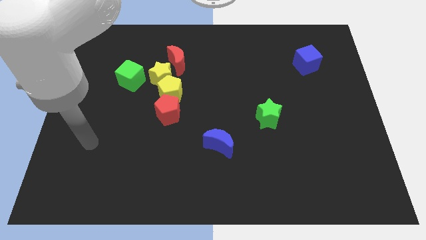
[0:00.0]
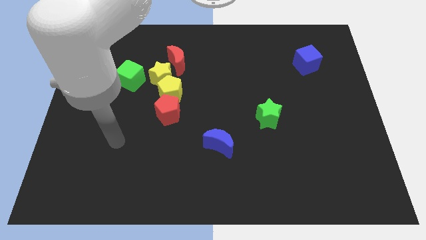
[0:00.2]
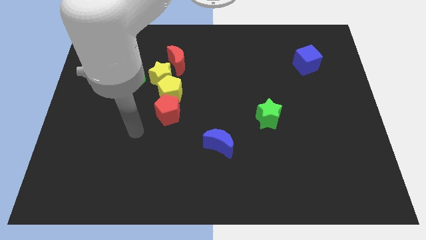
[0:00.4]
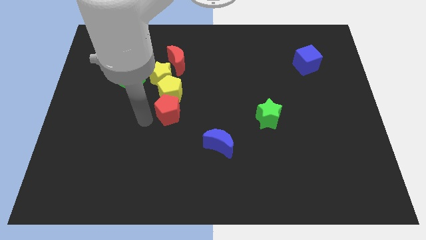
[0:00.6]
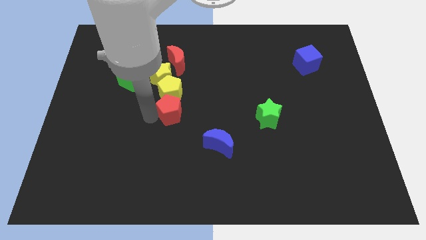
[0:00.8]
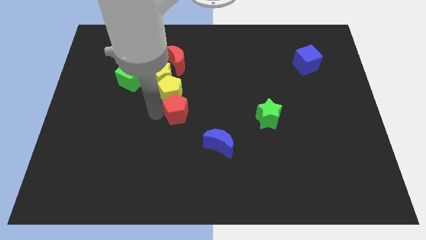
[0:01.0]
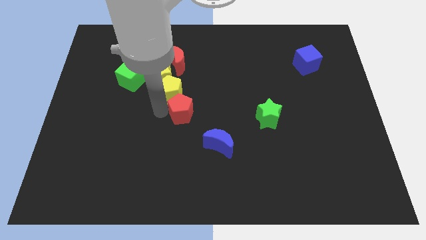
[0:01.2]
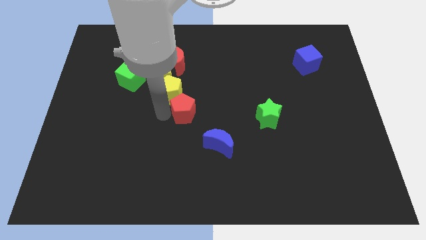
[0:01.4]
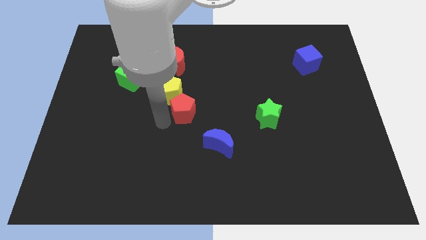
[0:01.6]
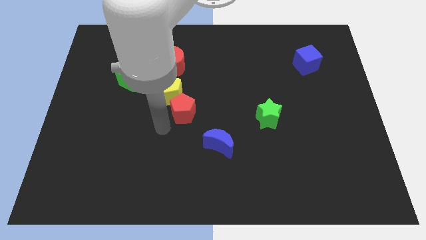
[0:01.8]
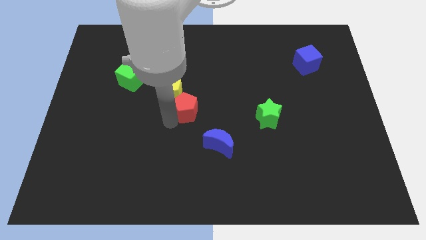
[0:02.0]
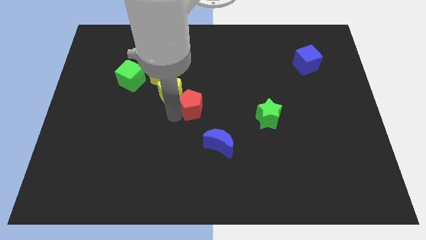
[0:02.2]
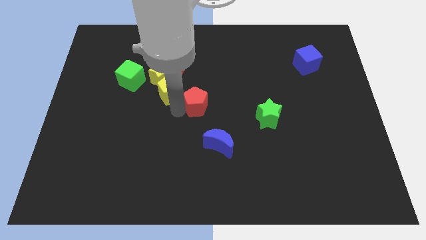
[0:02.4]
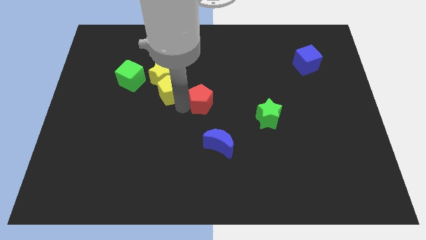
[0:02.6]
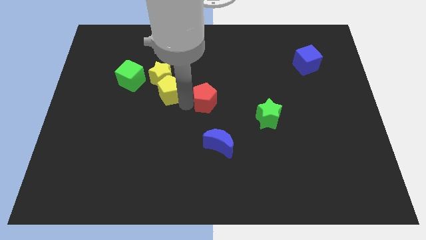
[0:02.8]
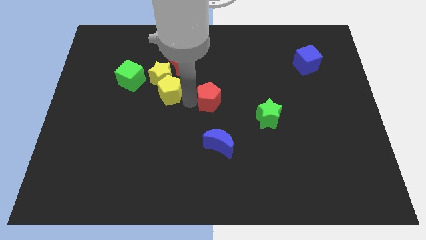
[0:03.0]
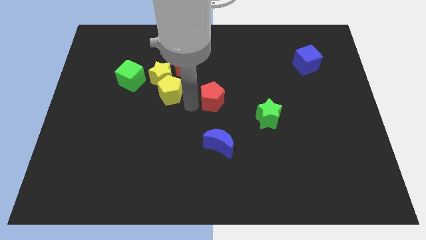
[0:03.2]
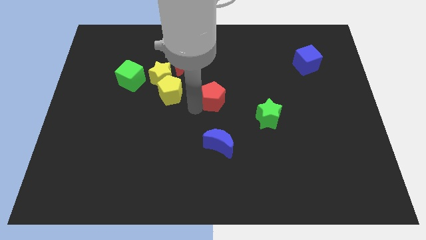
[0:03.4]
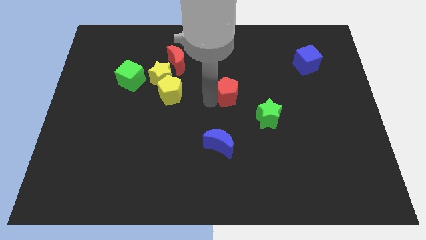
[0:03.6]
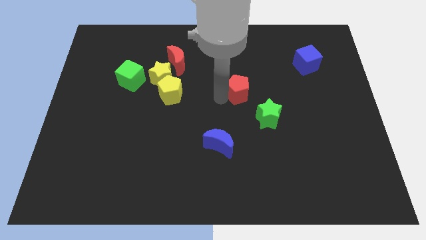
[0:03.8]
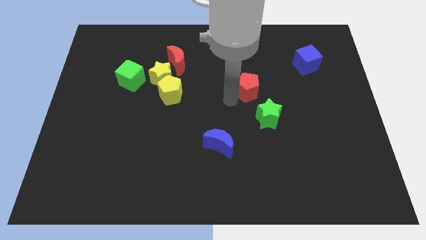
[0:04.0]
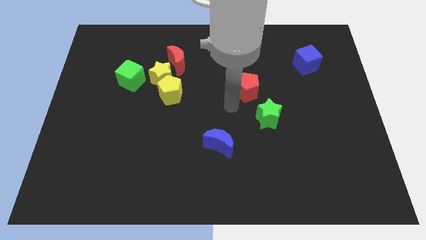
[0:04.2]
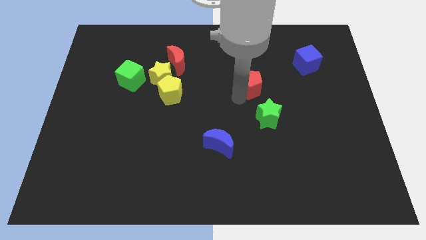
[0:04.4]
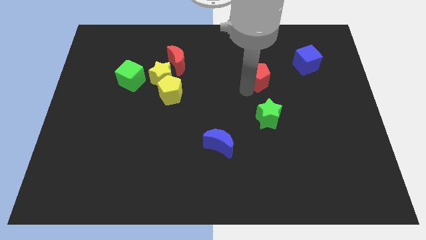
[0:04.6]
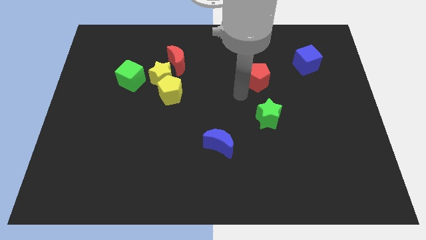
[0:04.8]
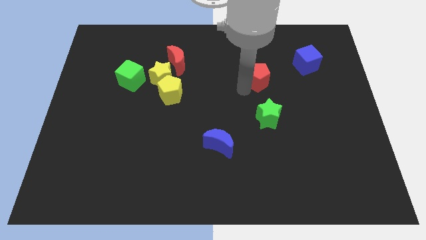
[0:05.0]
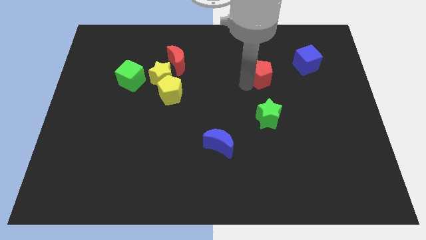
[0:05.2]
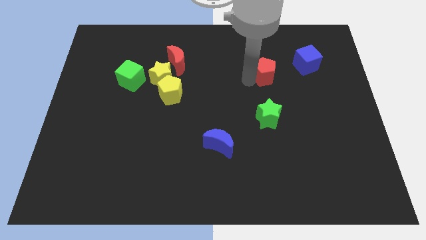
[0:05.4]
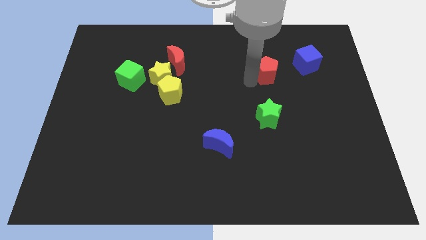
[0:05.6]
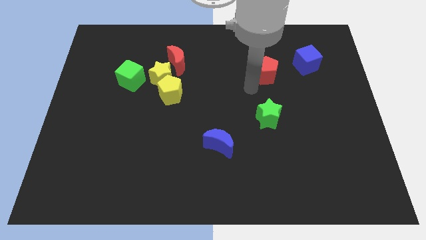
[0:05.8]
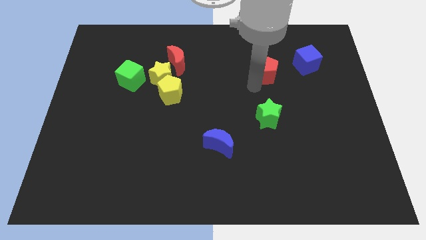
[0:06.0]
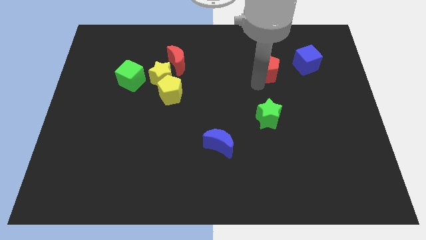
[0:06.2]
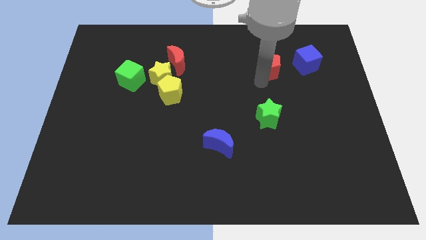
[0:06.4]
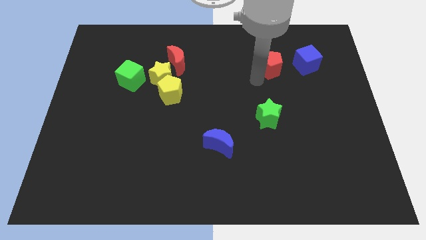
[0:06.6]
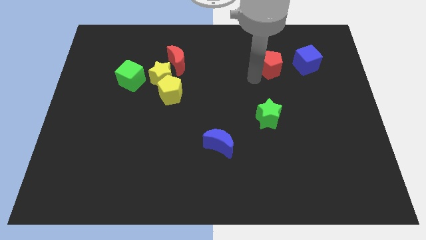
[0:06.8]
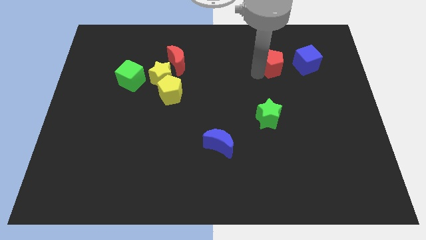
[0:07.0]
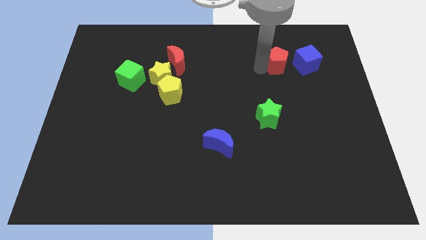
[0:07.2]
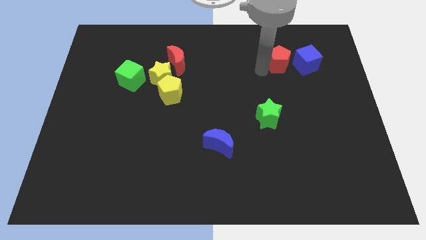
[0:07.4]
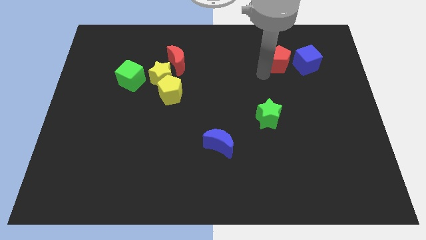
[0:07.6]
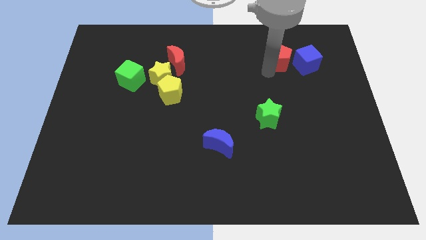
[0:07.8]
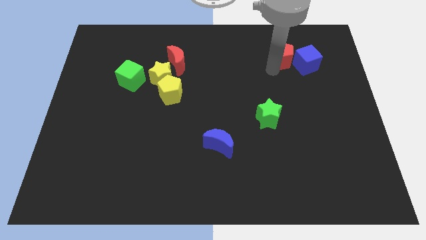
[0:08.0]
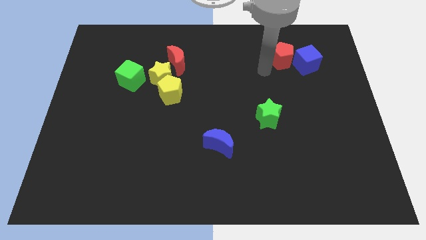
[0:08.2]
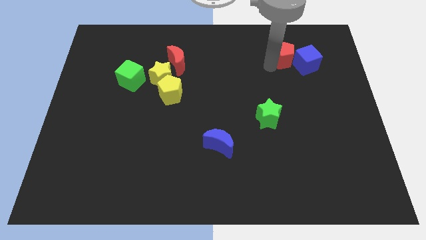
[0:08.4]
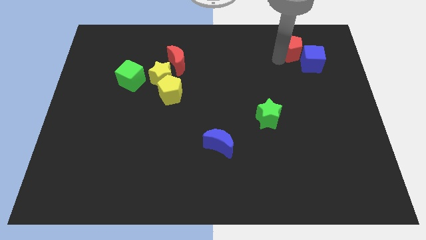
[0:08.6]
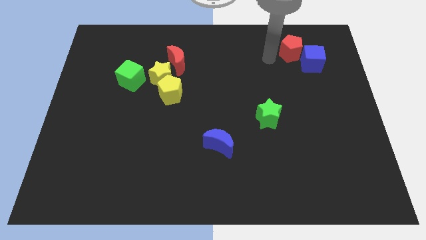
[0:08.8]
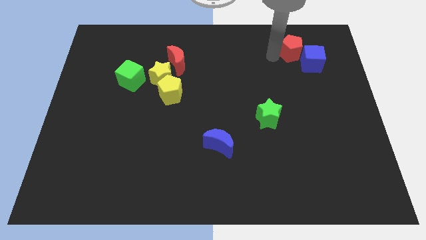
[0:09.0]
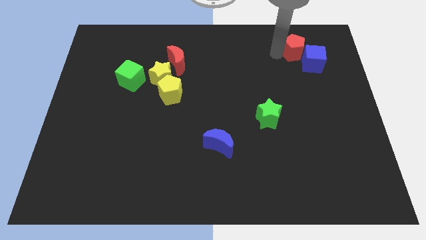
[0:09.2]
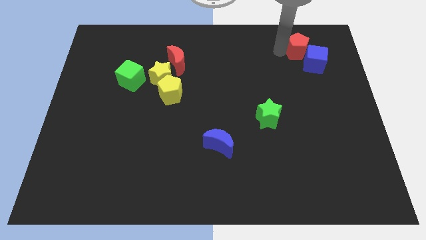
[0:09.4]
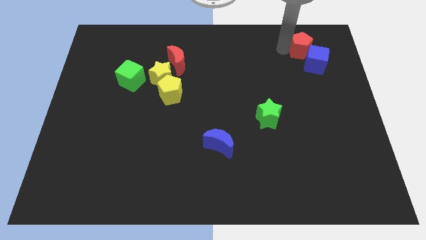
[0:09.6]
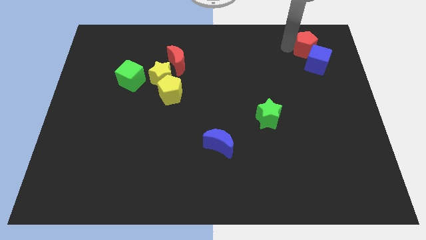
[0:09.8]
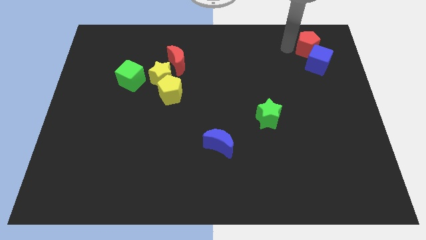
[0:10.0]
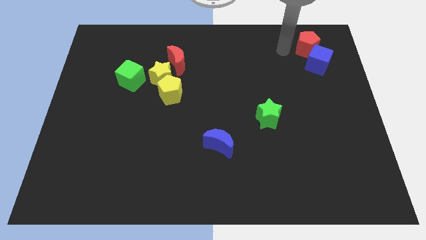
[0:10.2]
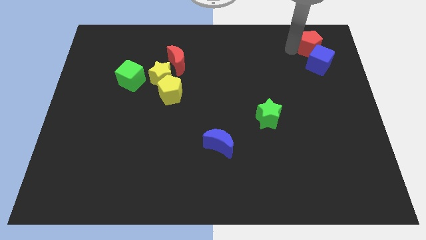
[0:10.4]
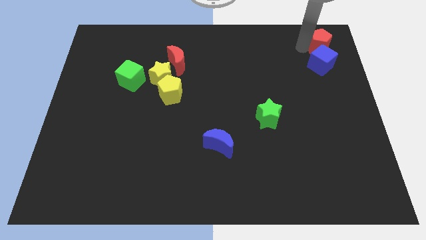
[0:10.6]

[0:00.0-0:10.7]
slide the red pentagon to the upper right corner

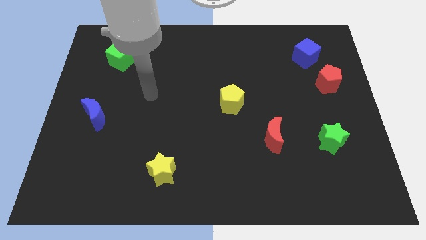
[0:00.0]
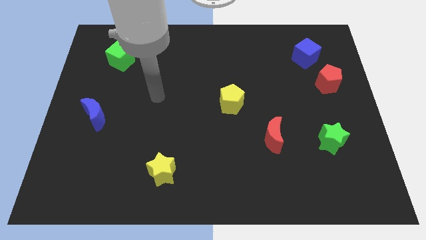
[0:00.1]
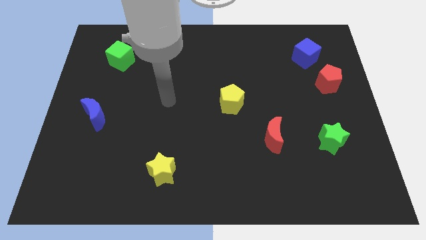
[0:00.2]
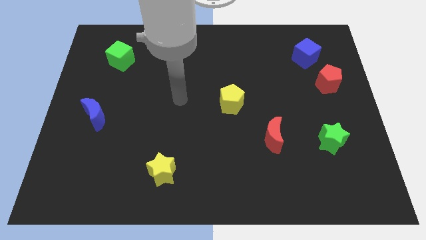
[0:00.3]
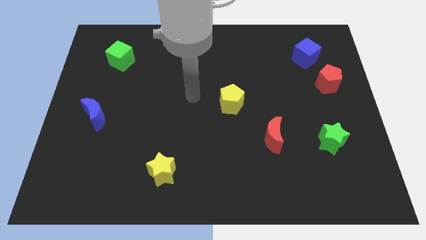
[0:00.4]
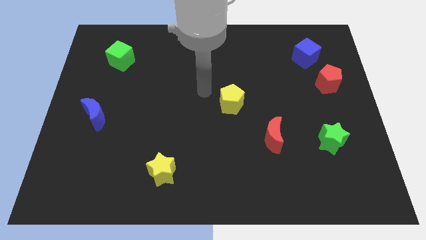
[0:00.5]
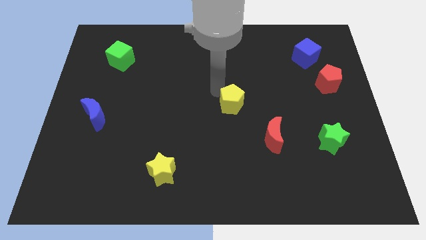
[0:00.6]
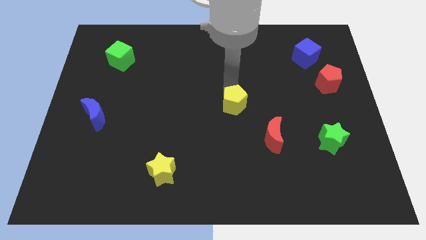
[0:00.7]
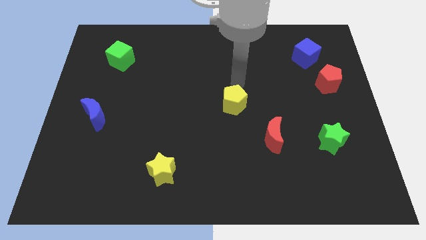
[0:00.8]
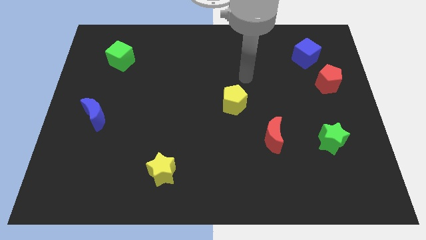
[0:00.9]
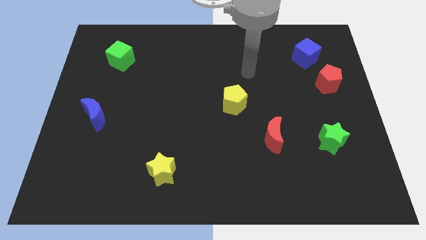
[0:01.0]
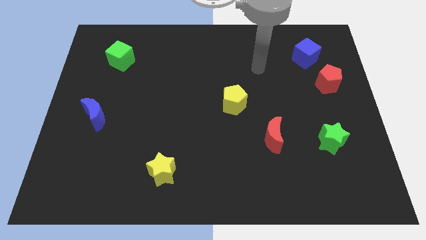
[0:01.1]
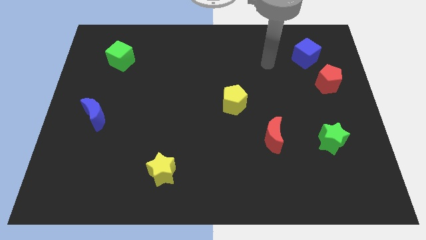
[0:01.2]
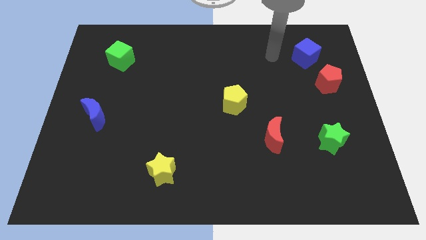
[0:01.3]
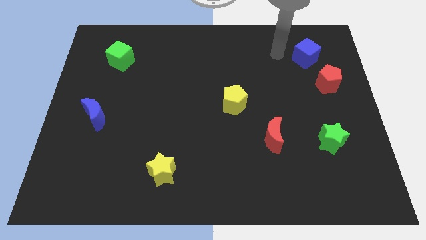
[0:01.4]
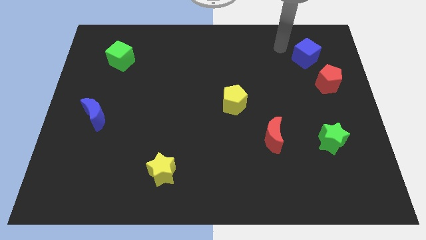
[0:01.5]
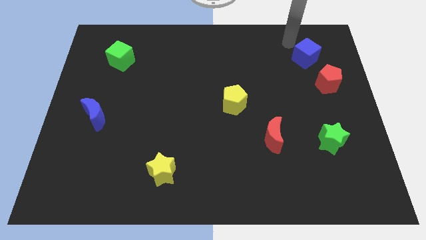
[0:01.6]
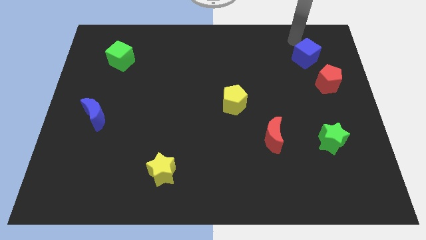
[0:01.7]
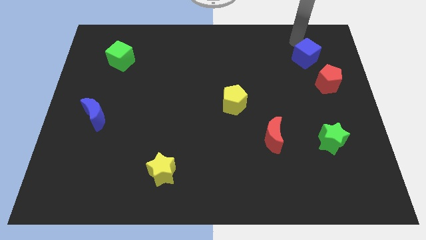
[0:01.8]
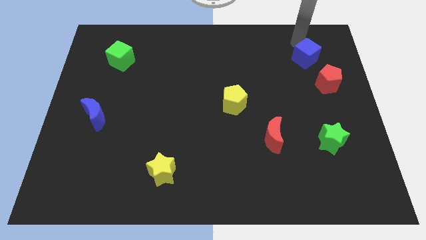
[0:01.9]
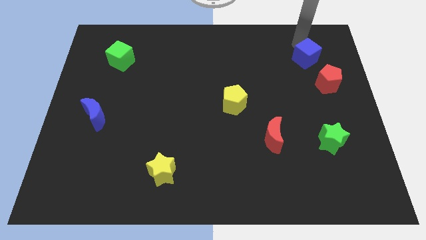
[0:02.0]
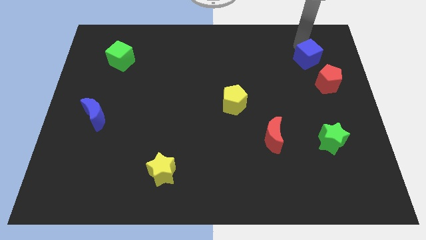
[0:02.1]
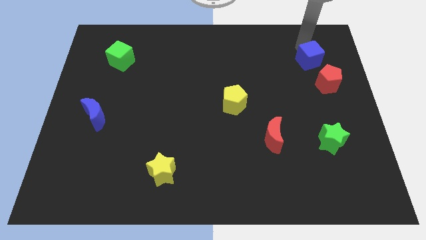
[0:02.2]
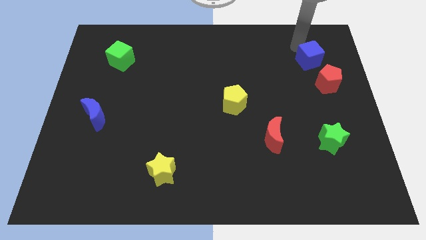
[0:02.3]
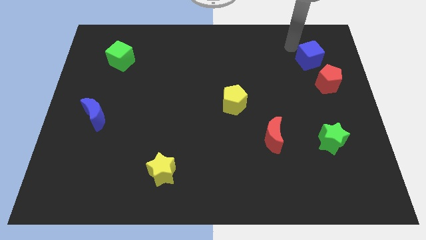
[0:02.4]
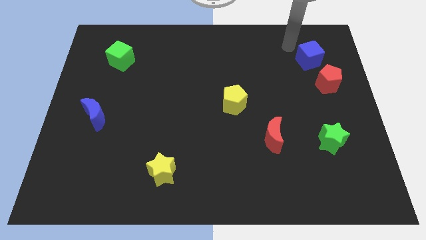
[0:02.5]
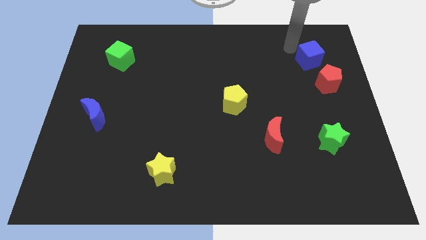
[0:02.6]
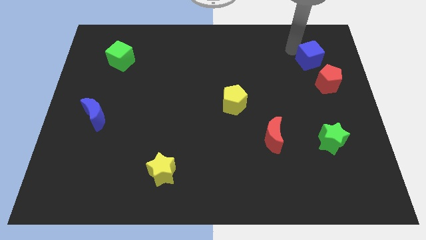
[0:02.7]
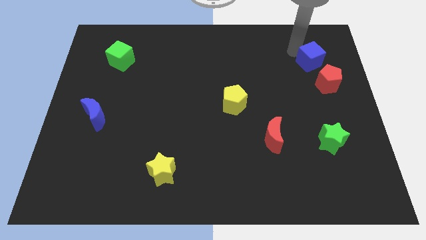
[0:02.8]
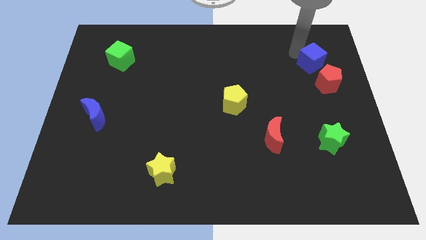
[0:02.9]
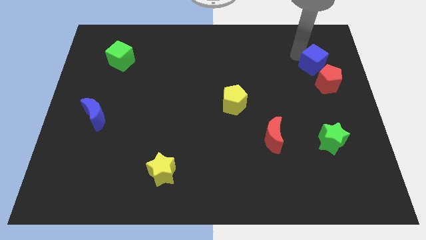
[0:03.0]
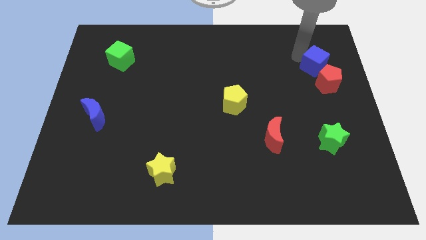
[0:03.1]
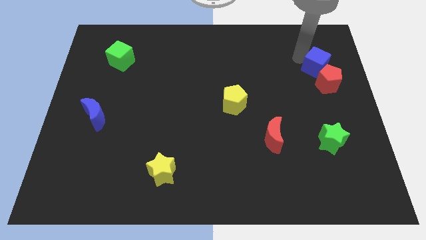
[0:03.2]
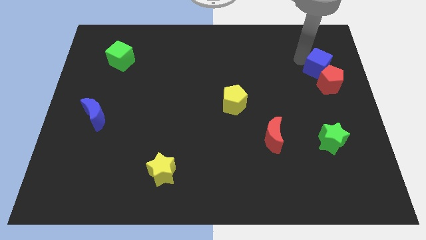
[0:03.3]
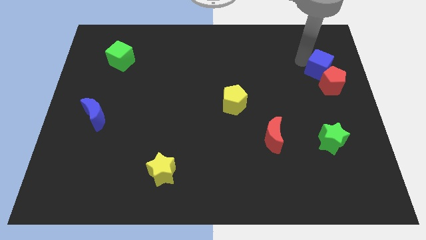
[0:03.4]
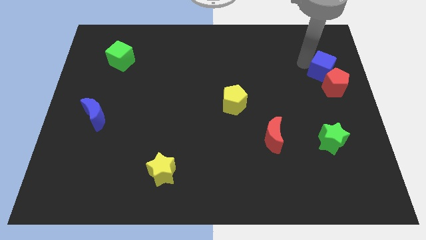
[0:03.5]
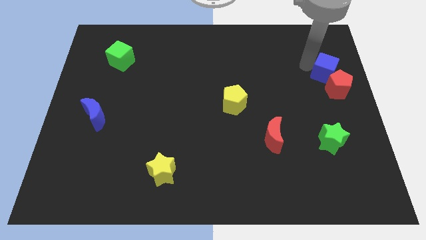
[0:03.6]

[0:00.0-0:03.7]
slide the blue cube to the right side
